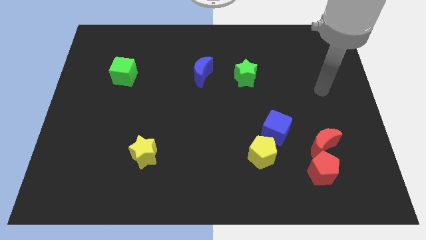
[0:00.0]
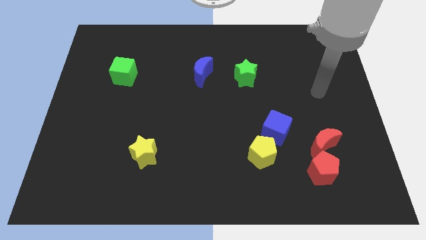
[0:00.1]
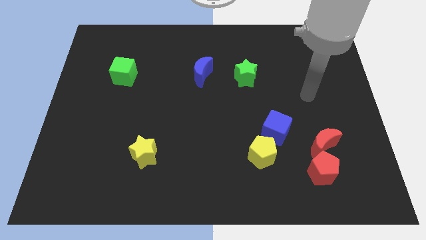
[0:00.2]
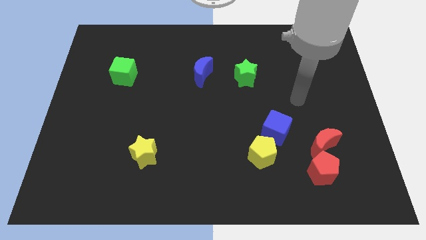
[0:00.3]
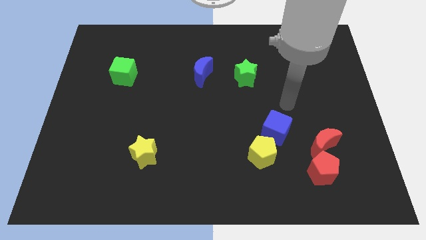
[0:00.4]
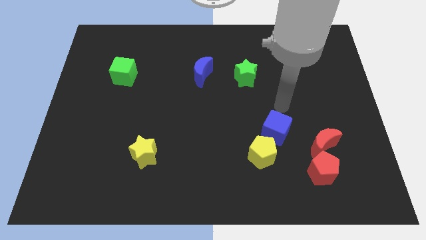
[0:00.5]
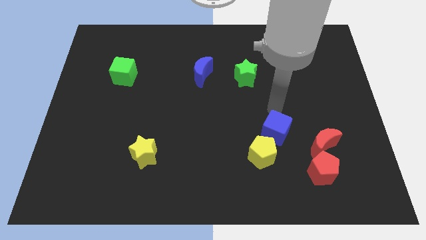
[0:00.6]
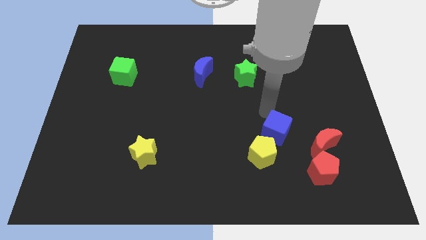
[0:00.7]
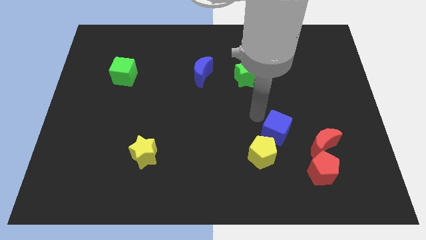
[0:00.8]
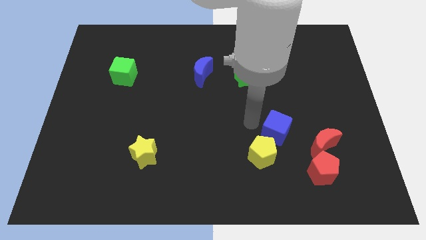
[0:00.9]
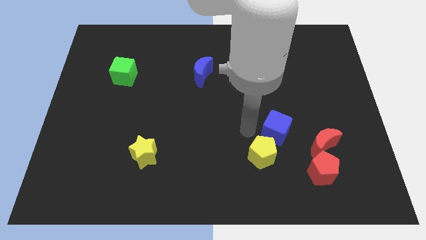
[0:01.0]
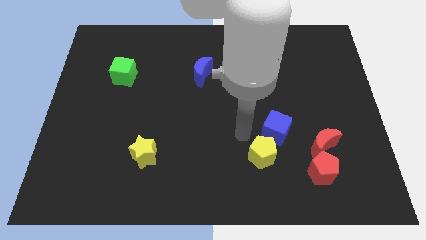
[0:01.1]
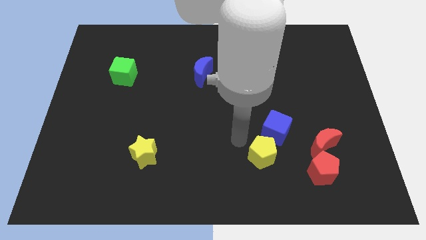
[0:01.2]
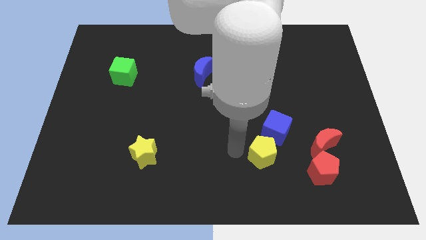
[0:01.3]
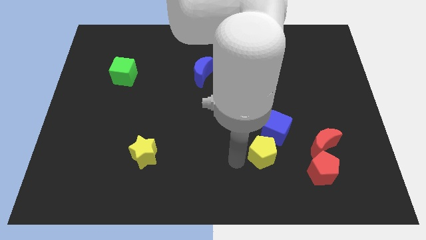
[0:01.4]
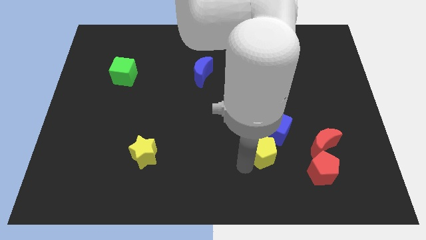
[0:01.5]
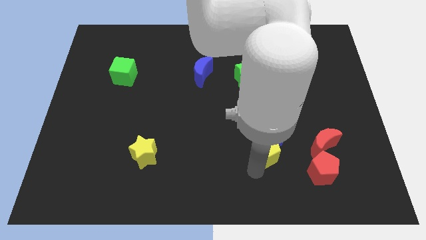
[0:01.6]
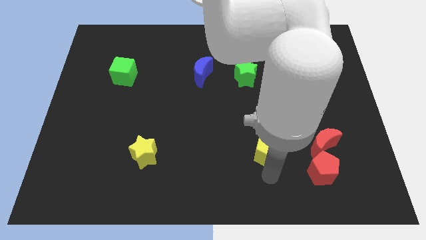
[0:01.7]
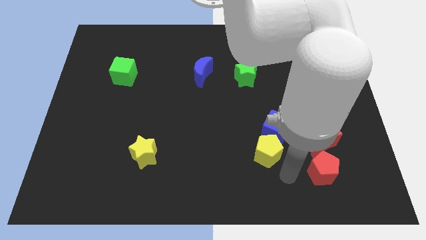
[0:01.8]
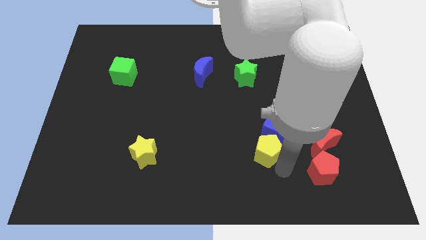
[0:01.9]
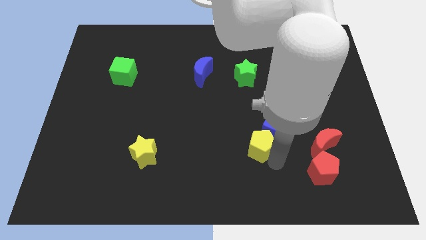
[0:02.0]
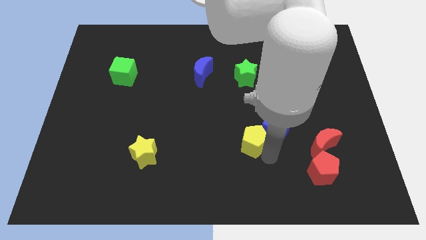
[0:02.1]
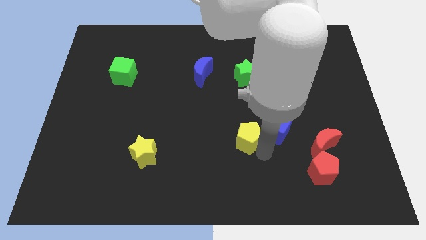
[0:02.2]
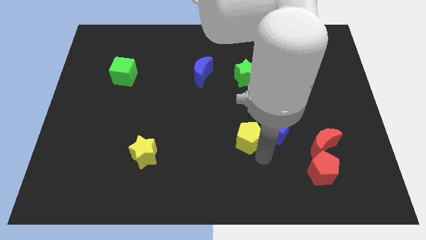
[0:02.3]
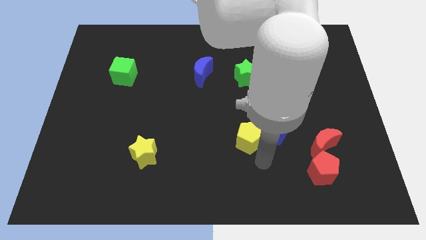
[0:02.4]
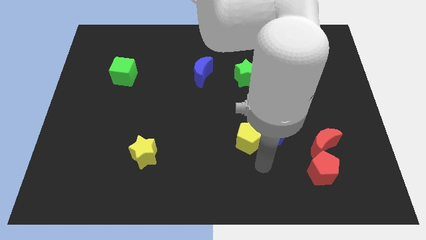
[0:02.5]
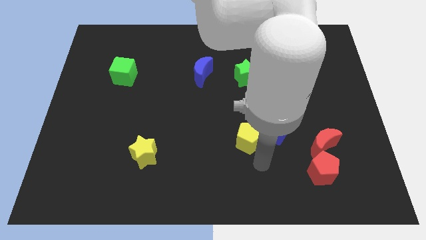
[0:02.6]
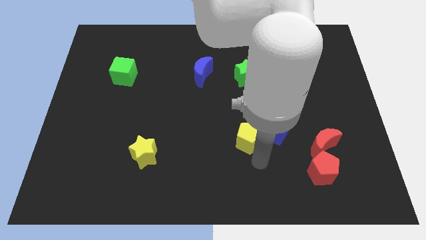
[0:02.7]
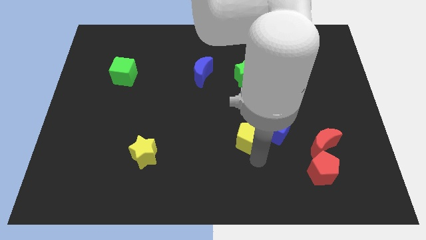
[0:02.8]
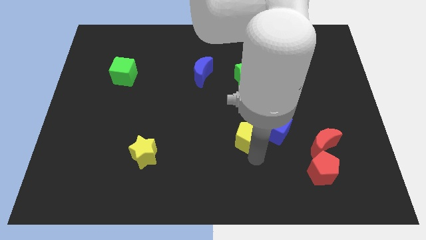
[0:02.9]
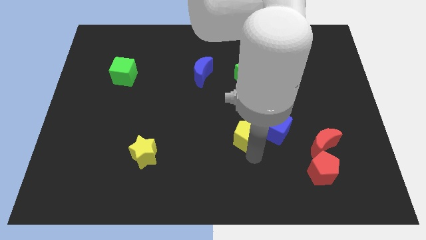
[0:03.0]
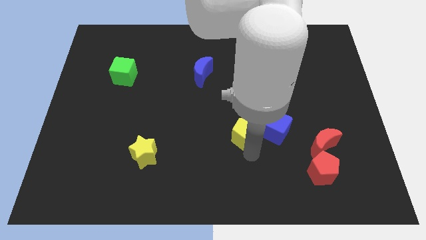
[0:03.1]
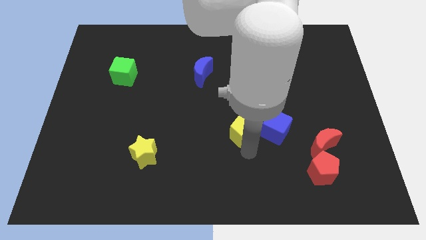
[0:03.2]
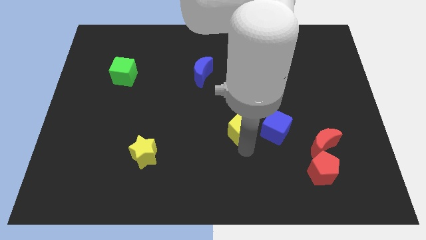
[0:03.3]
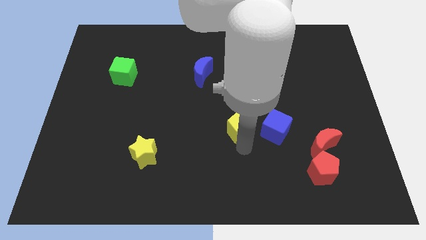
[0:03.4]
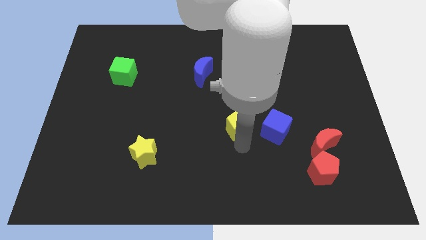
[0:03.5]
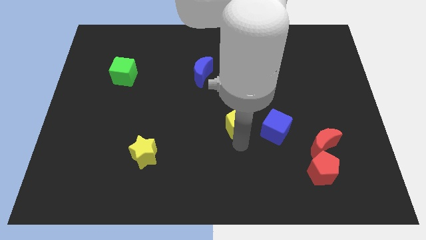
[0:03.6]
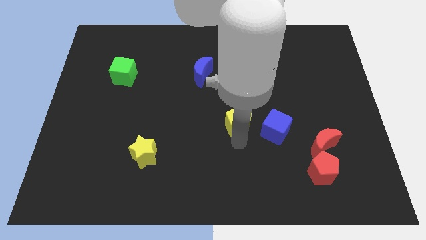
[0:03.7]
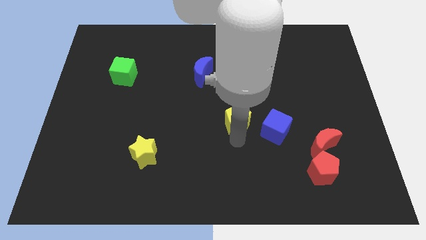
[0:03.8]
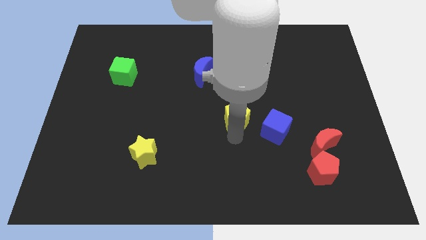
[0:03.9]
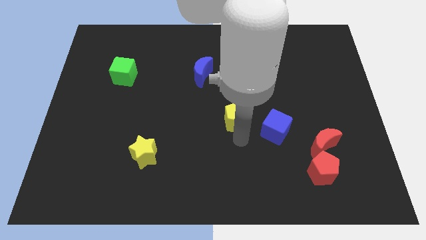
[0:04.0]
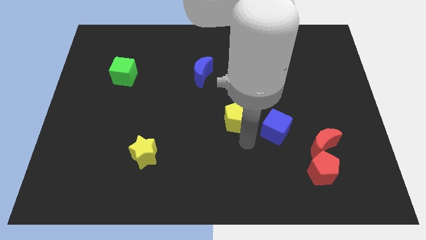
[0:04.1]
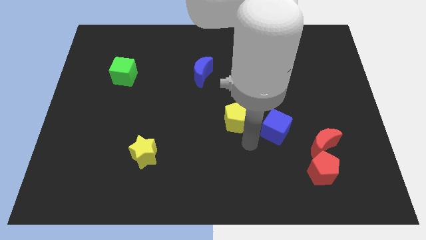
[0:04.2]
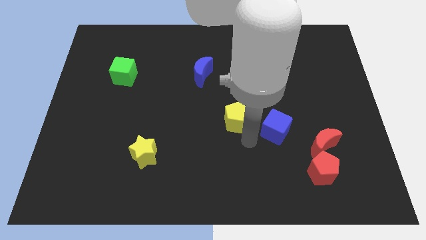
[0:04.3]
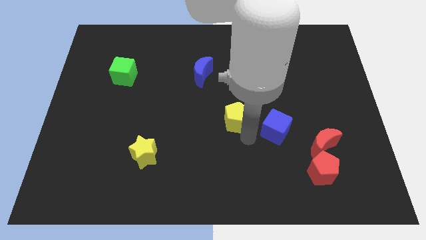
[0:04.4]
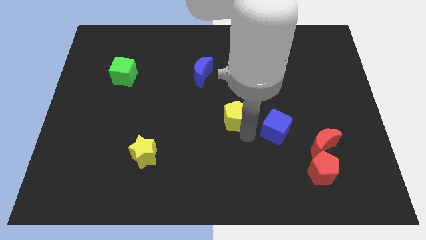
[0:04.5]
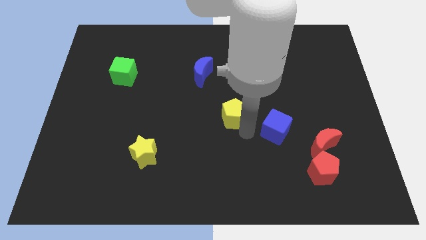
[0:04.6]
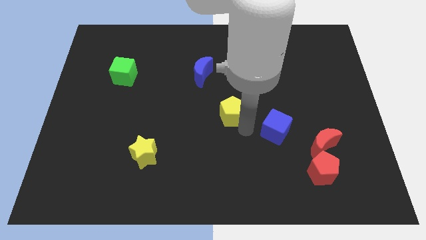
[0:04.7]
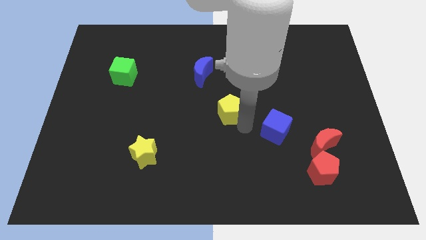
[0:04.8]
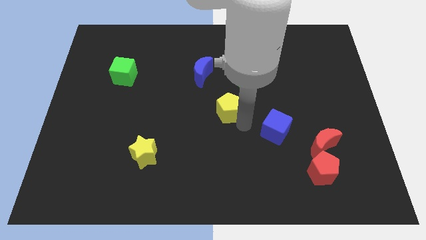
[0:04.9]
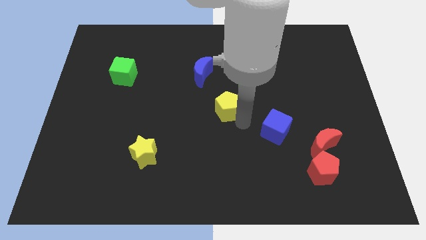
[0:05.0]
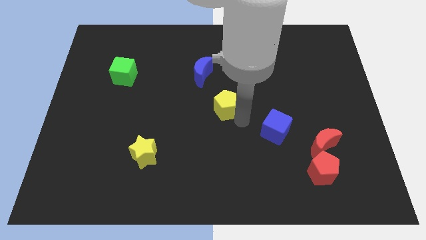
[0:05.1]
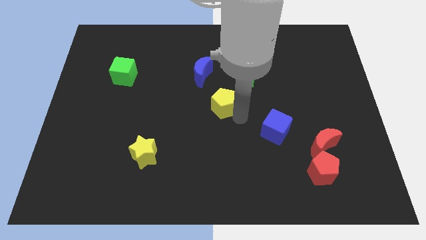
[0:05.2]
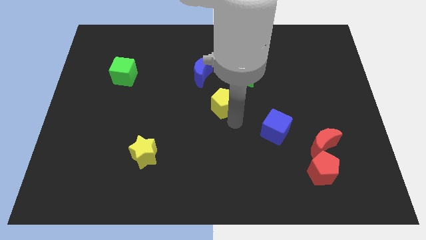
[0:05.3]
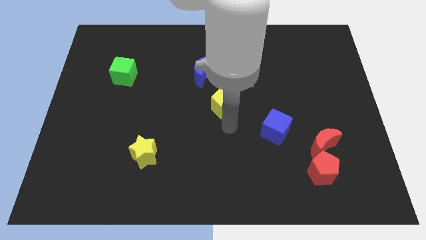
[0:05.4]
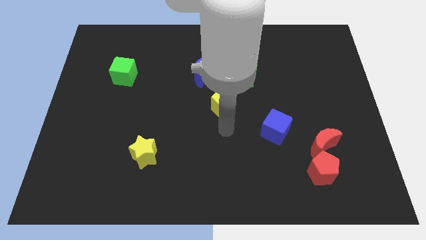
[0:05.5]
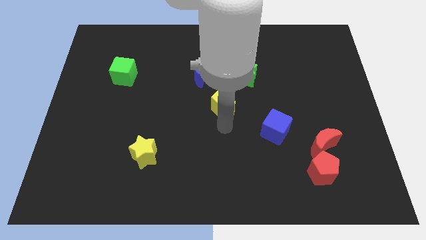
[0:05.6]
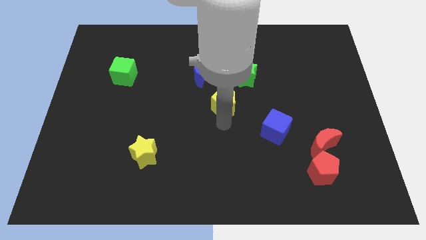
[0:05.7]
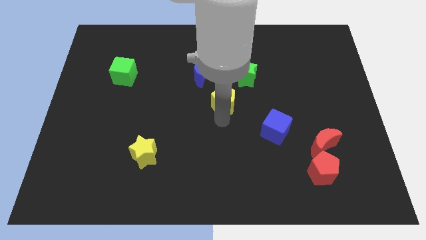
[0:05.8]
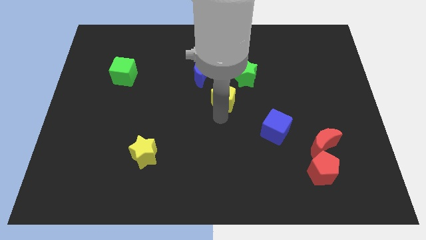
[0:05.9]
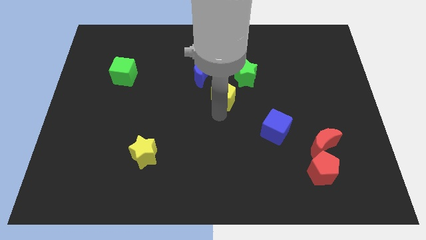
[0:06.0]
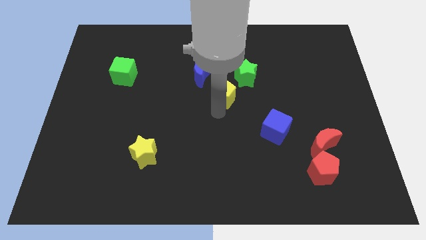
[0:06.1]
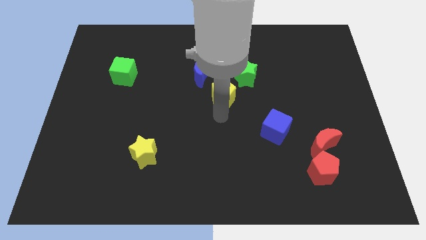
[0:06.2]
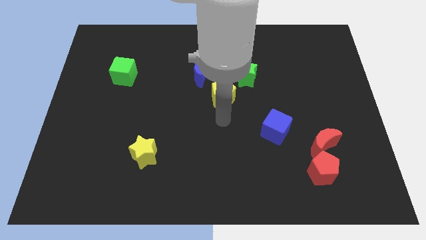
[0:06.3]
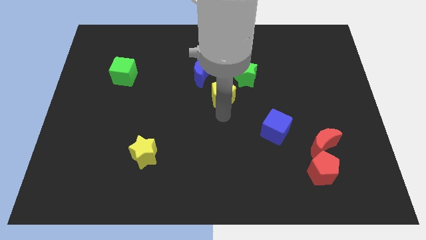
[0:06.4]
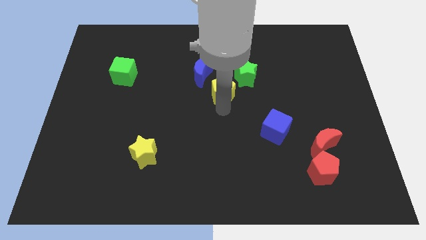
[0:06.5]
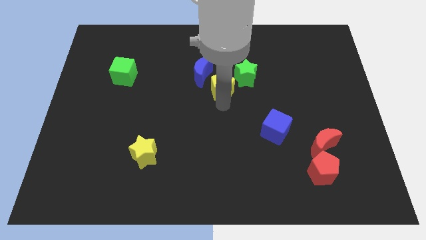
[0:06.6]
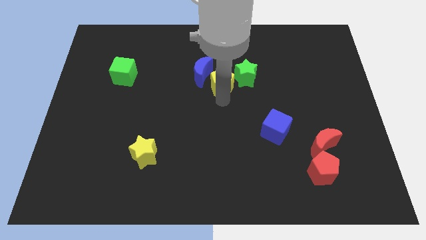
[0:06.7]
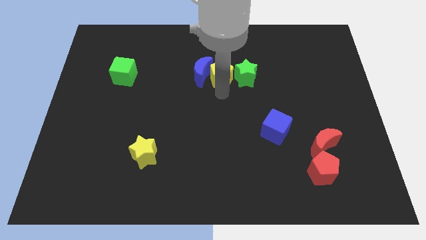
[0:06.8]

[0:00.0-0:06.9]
put the yellow pentagon to the top left of the green star
